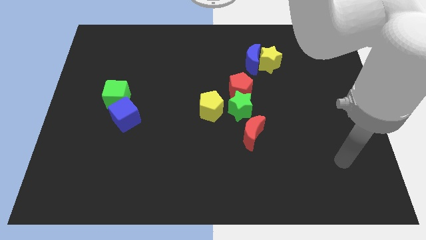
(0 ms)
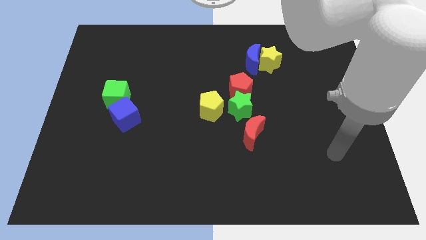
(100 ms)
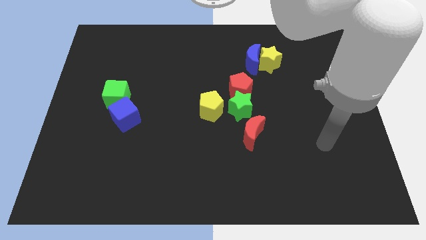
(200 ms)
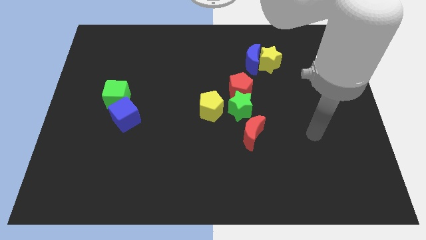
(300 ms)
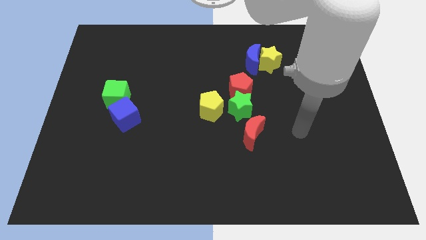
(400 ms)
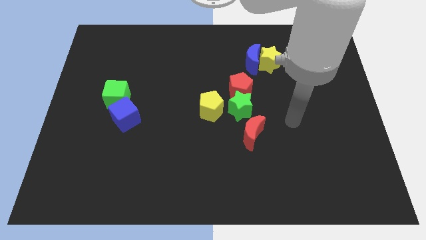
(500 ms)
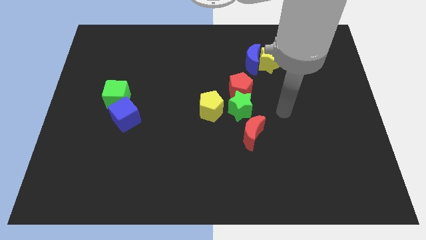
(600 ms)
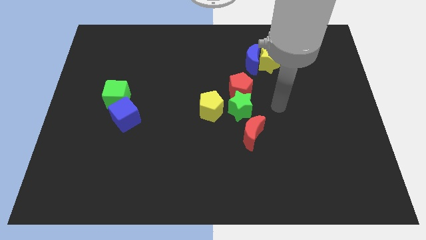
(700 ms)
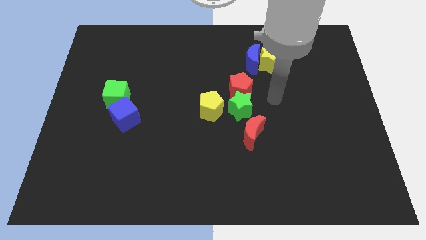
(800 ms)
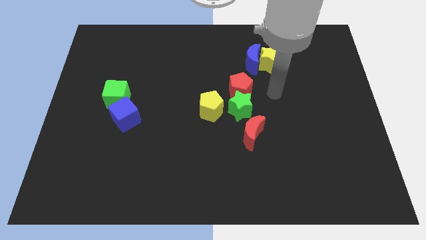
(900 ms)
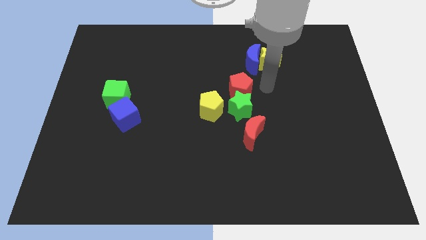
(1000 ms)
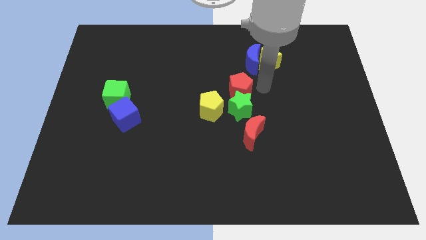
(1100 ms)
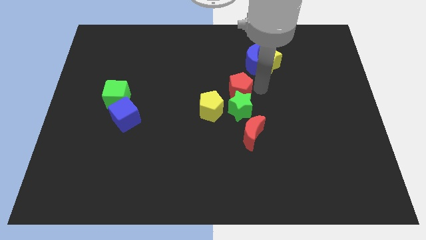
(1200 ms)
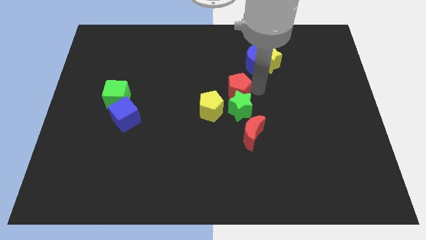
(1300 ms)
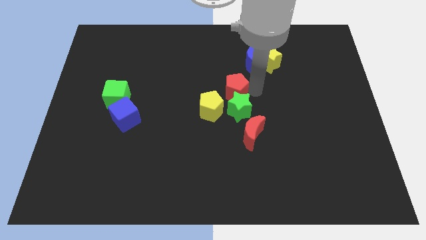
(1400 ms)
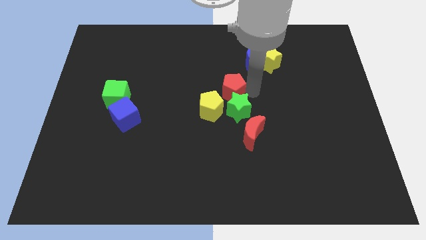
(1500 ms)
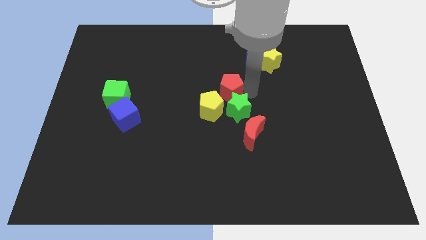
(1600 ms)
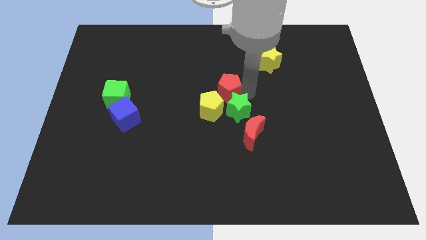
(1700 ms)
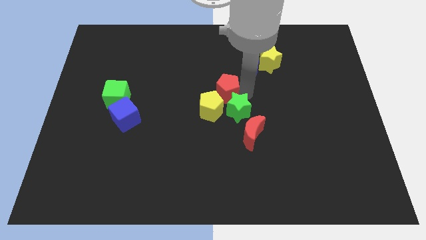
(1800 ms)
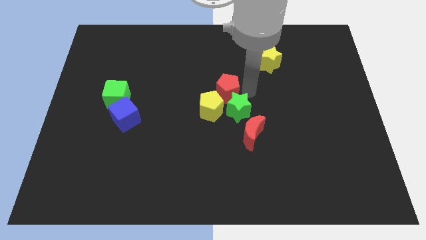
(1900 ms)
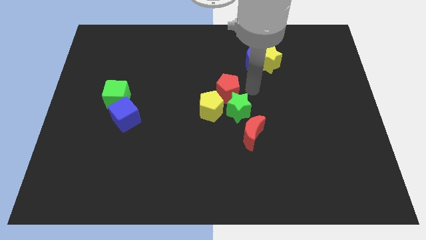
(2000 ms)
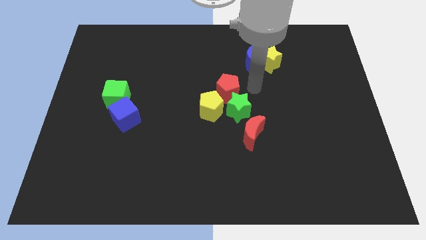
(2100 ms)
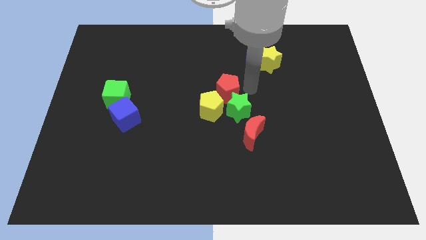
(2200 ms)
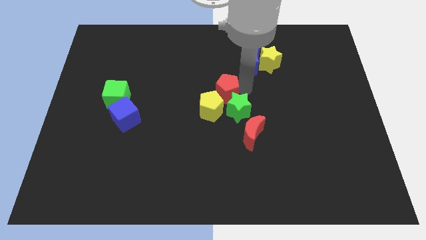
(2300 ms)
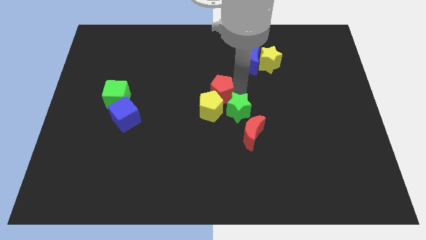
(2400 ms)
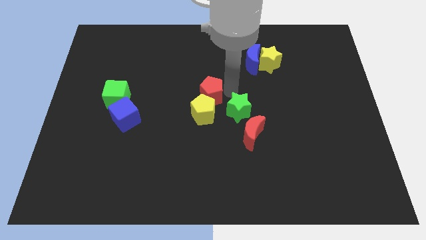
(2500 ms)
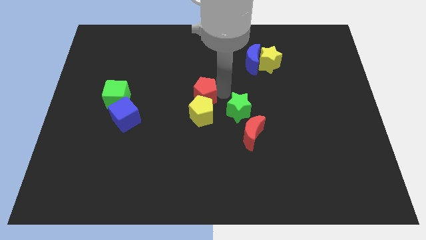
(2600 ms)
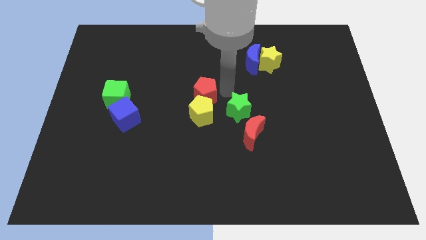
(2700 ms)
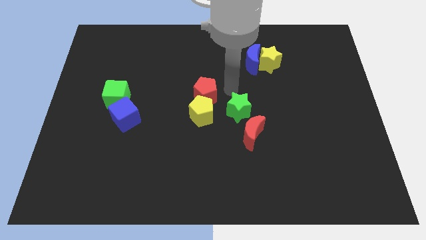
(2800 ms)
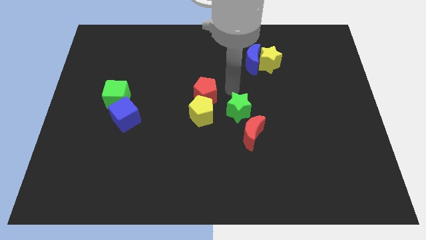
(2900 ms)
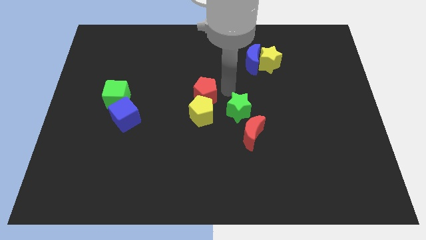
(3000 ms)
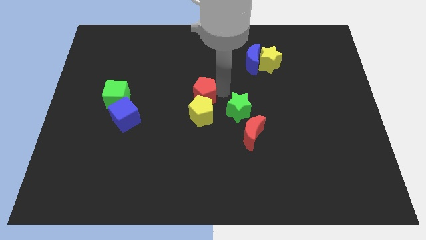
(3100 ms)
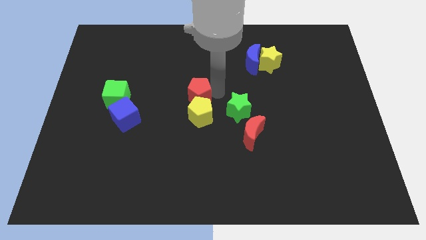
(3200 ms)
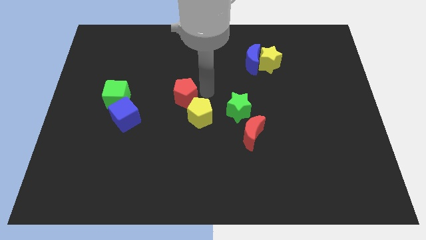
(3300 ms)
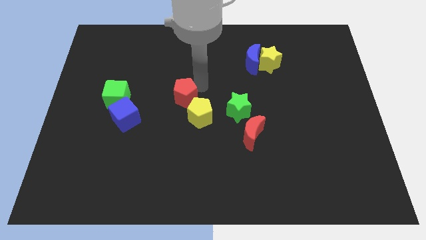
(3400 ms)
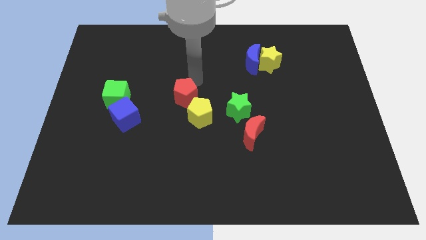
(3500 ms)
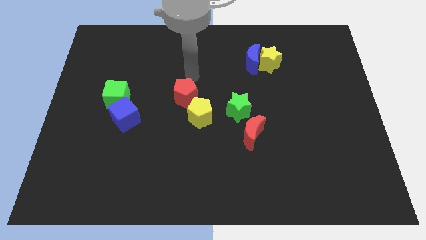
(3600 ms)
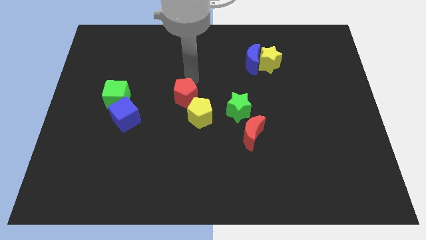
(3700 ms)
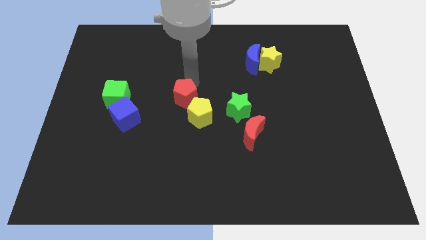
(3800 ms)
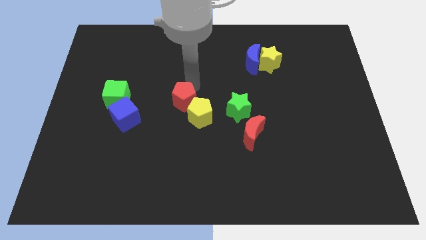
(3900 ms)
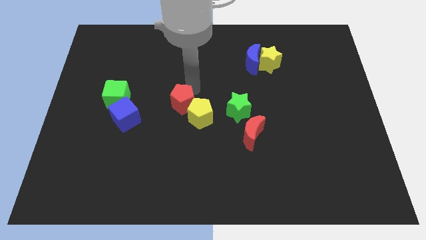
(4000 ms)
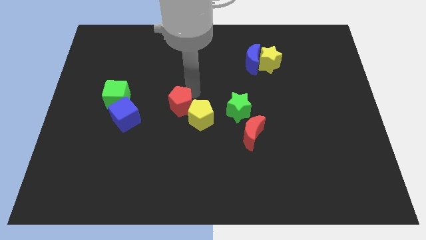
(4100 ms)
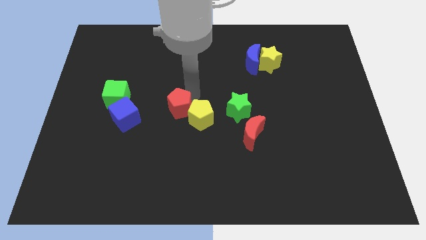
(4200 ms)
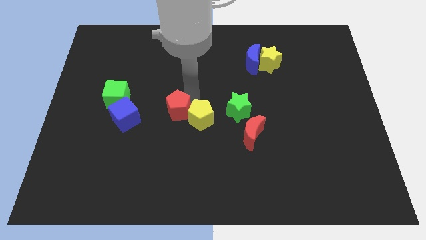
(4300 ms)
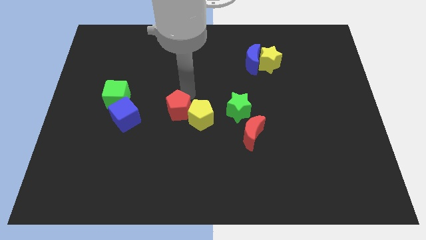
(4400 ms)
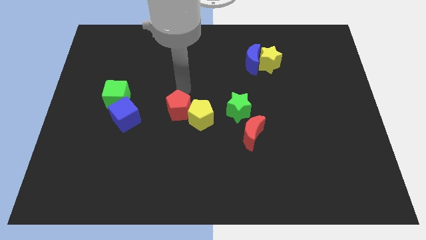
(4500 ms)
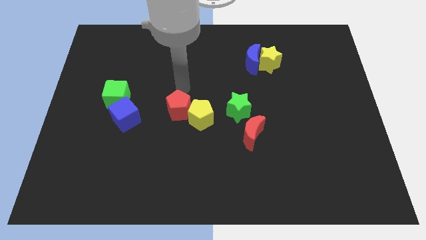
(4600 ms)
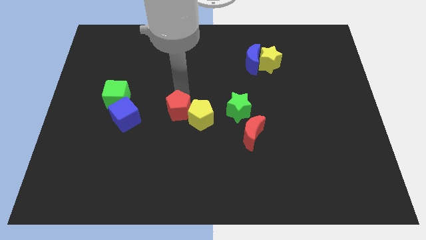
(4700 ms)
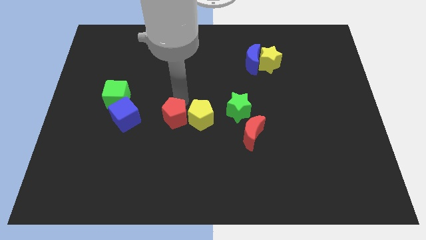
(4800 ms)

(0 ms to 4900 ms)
slide the red pentagon to the bottom left of the yellow pentagon

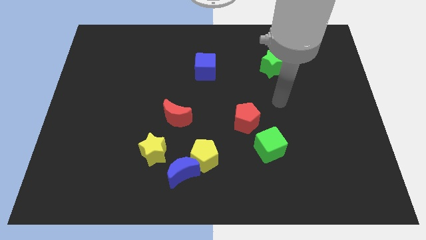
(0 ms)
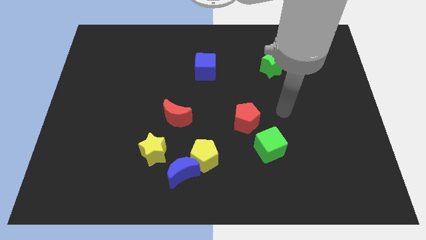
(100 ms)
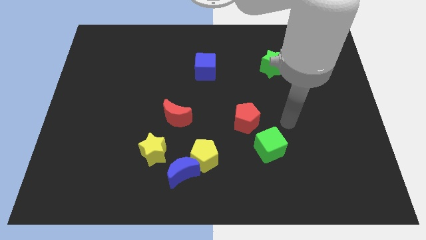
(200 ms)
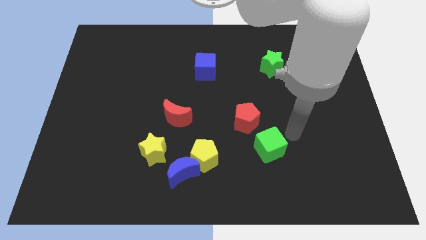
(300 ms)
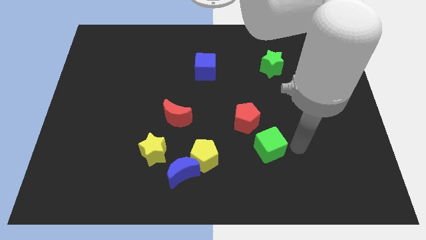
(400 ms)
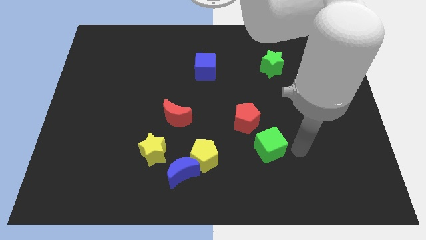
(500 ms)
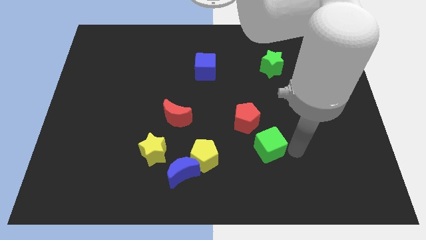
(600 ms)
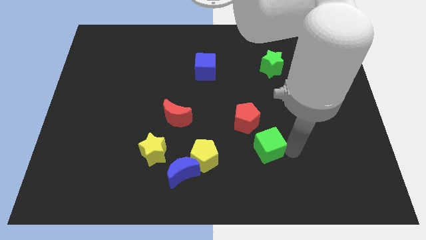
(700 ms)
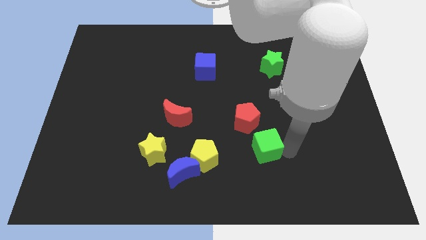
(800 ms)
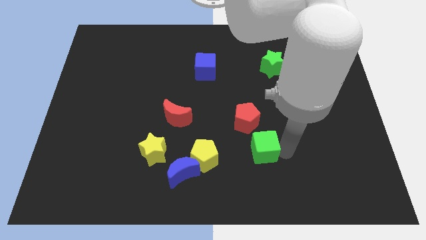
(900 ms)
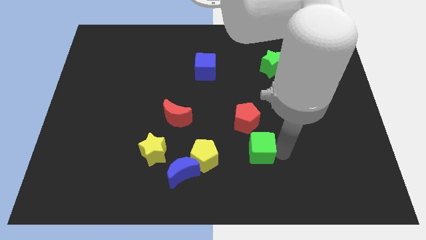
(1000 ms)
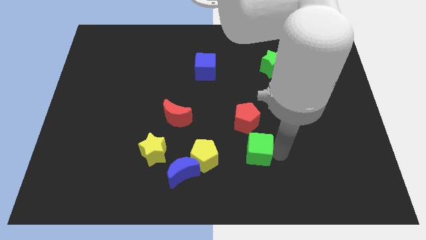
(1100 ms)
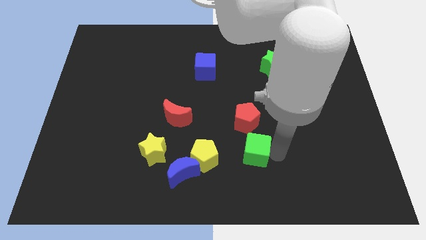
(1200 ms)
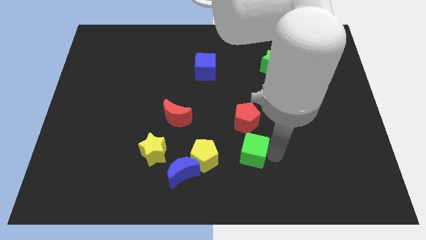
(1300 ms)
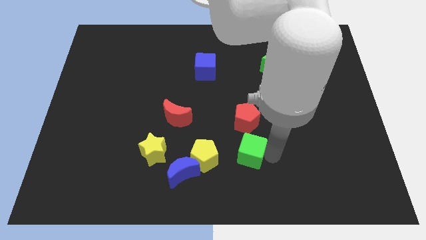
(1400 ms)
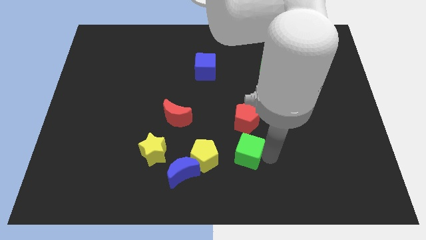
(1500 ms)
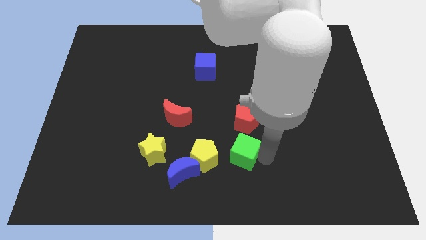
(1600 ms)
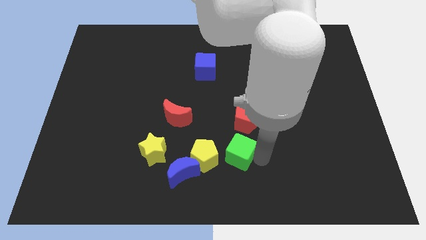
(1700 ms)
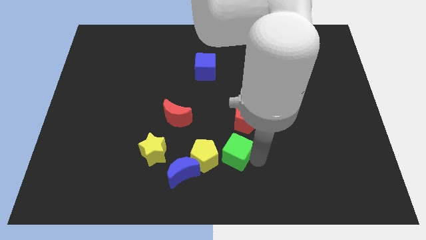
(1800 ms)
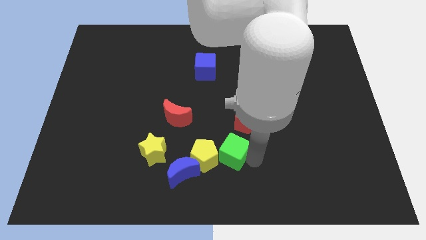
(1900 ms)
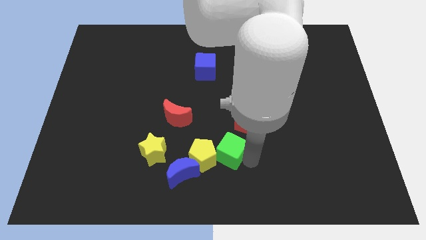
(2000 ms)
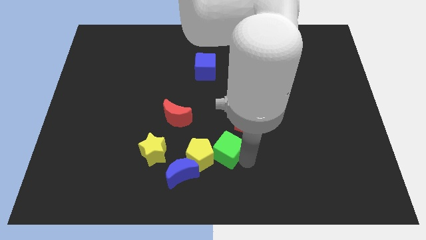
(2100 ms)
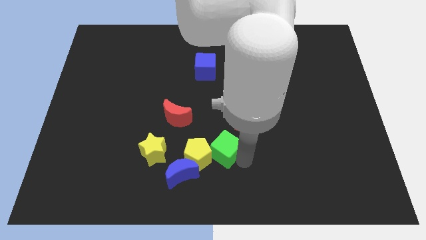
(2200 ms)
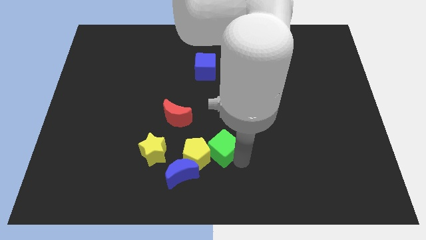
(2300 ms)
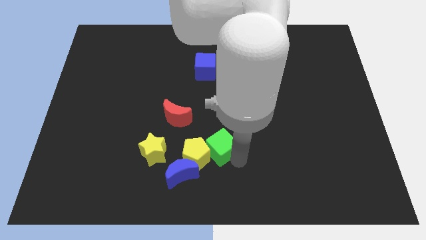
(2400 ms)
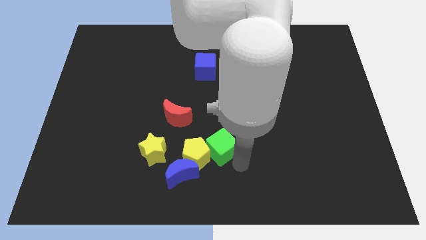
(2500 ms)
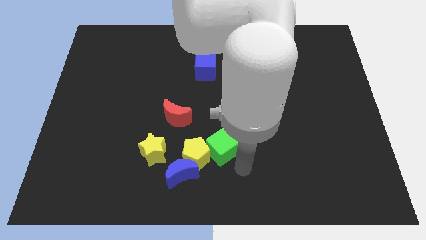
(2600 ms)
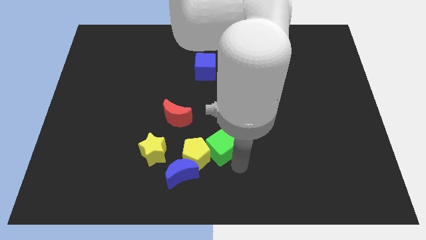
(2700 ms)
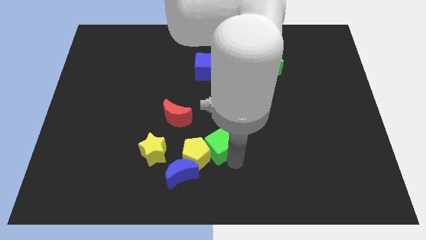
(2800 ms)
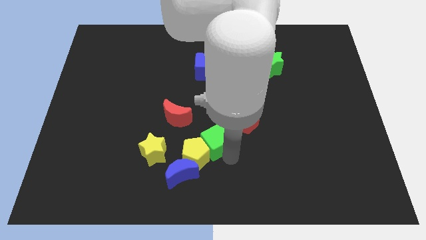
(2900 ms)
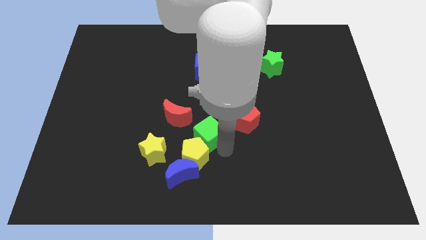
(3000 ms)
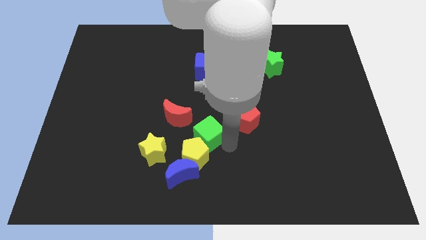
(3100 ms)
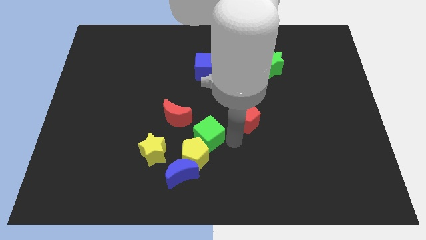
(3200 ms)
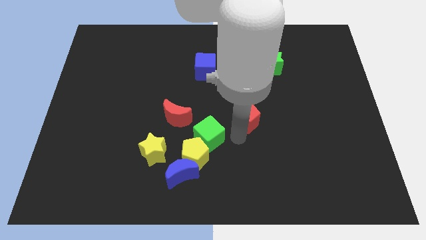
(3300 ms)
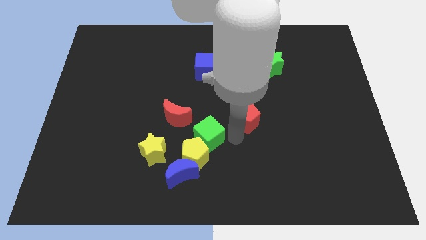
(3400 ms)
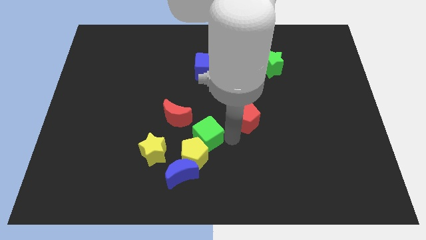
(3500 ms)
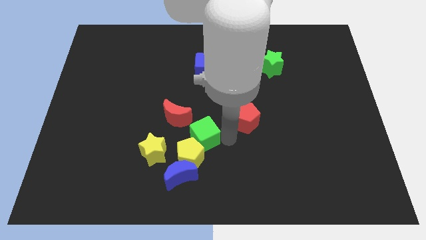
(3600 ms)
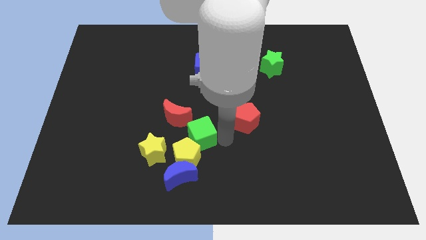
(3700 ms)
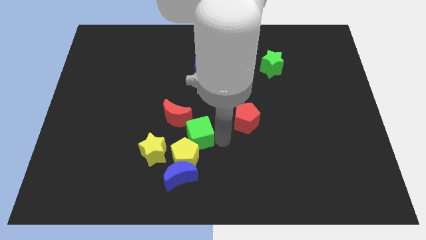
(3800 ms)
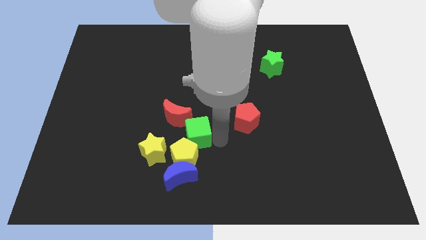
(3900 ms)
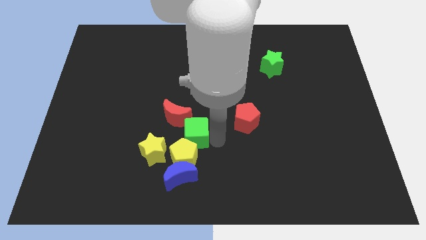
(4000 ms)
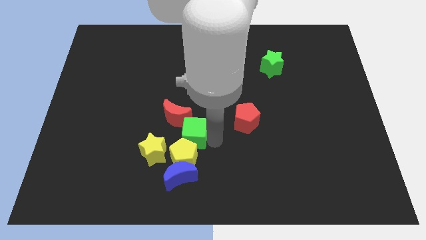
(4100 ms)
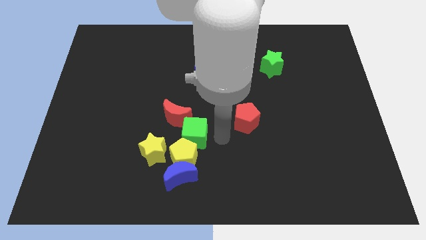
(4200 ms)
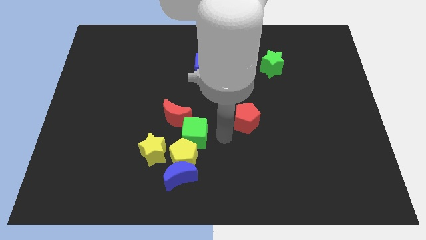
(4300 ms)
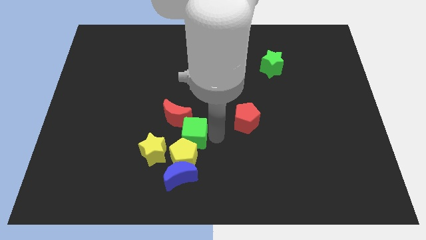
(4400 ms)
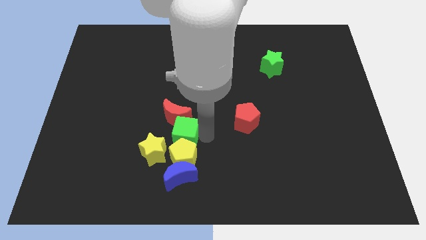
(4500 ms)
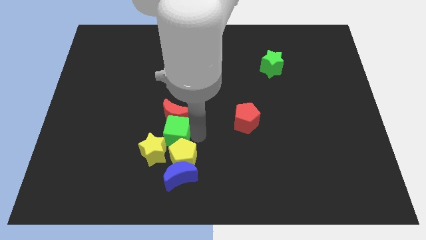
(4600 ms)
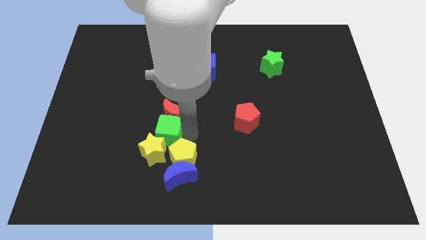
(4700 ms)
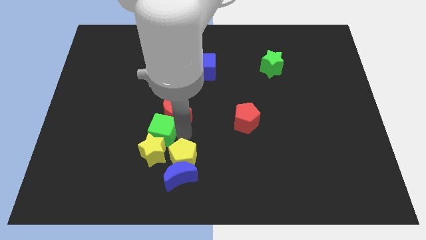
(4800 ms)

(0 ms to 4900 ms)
slide the green cube diagonally up and to the left of the yellow star
